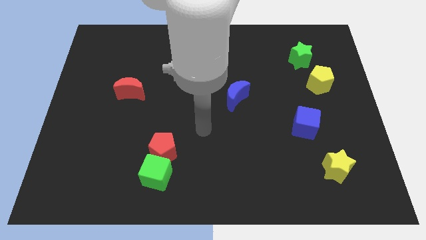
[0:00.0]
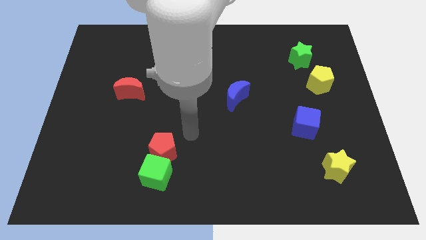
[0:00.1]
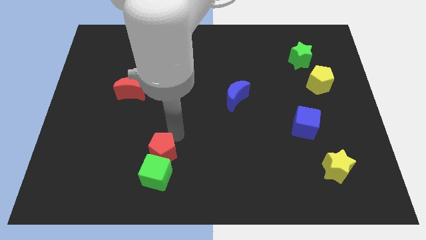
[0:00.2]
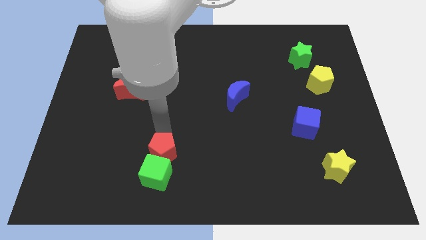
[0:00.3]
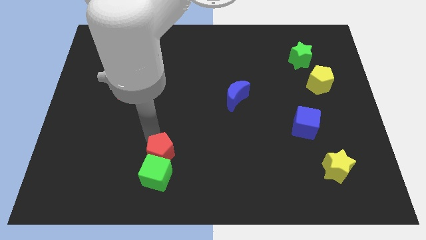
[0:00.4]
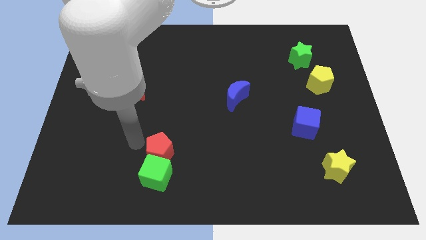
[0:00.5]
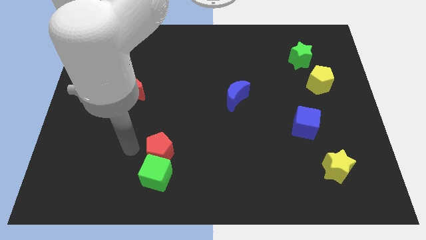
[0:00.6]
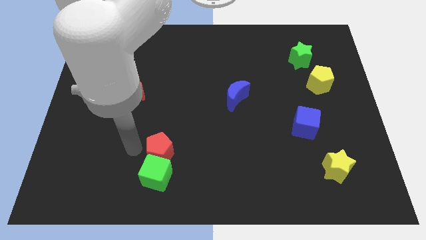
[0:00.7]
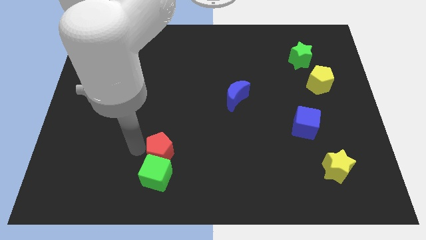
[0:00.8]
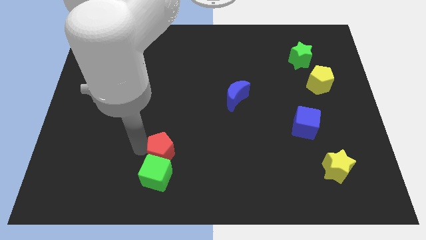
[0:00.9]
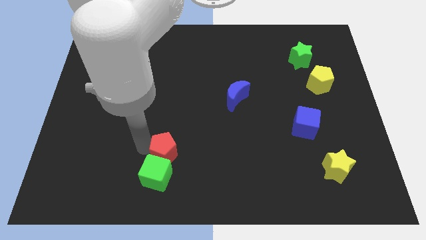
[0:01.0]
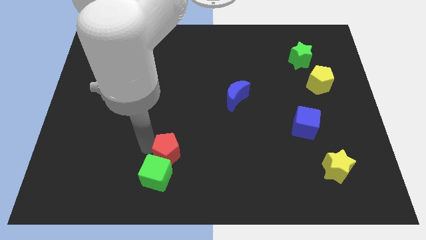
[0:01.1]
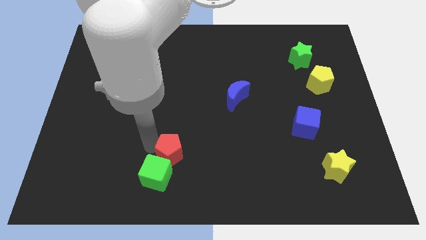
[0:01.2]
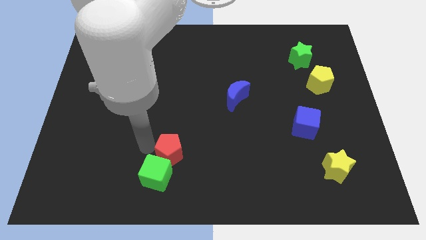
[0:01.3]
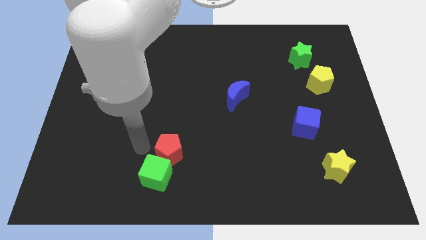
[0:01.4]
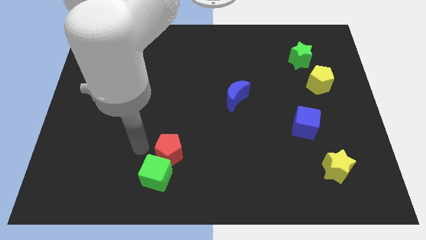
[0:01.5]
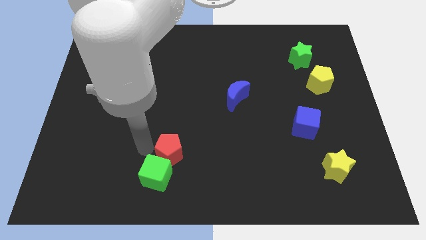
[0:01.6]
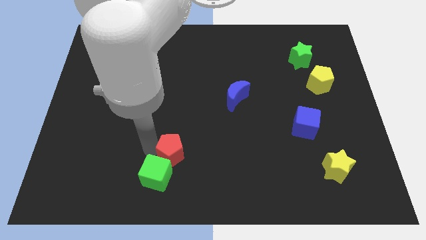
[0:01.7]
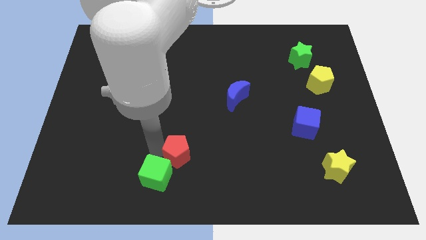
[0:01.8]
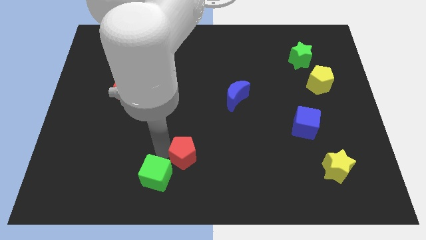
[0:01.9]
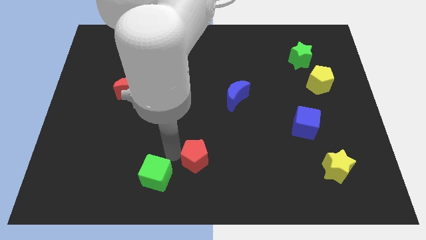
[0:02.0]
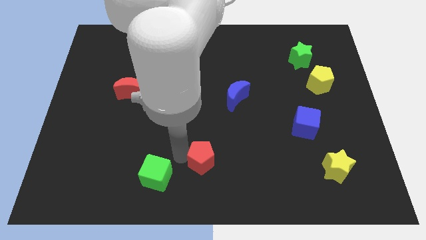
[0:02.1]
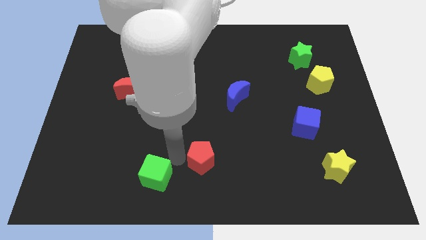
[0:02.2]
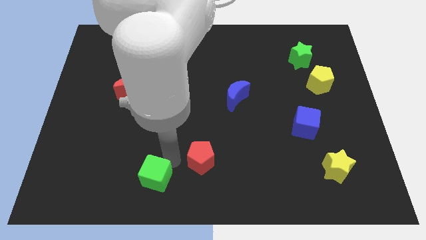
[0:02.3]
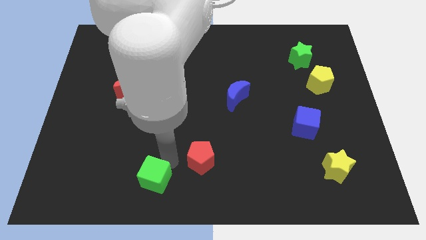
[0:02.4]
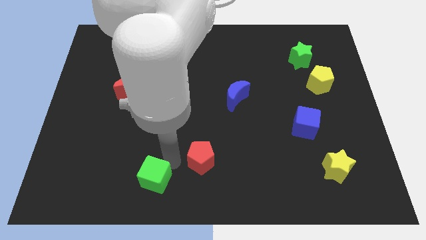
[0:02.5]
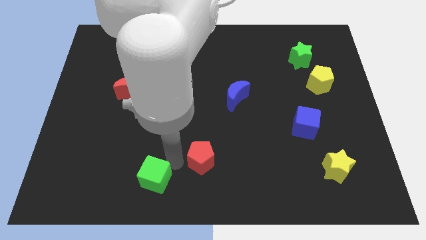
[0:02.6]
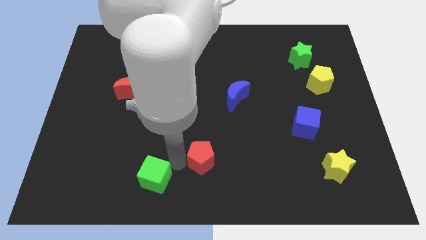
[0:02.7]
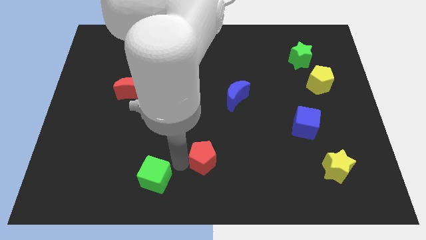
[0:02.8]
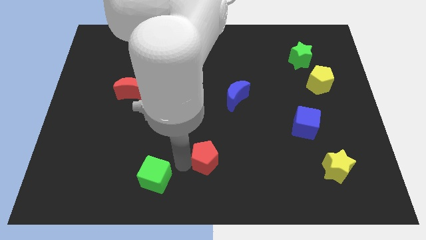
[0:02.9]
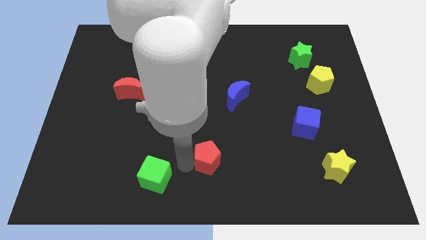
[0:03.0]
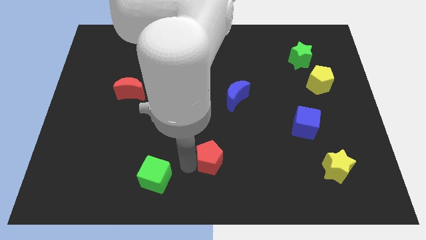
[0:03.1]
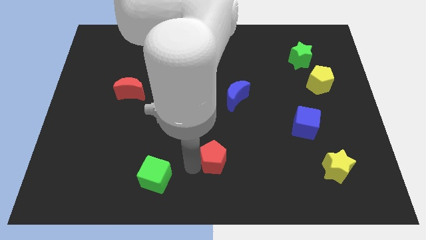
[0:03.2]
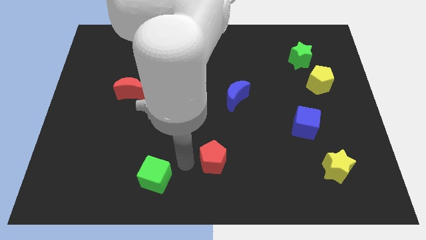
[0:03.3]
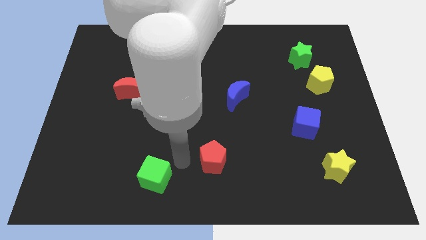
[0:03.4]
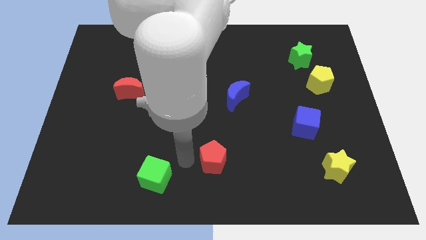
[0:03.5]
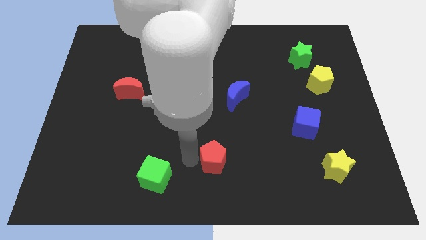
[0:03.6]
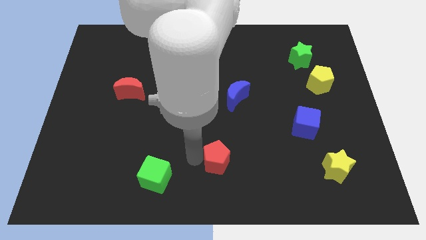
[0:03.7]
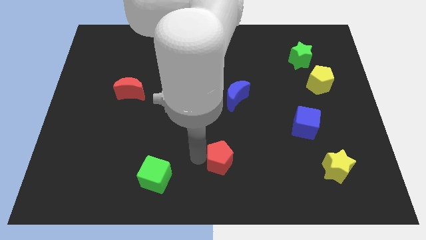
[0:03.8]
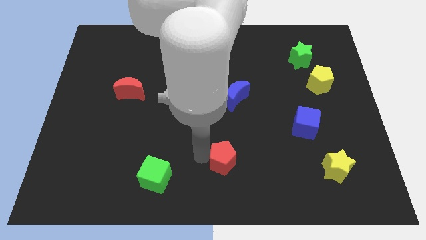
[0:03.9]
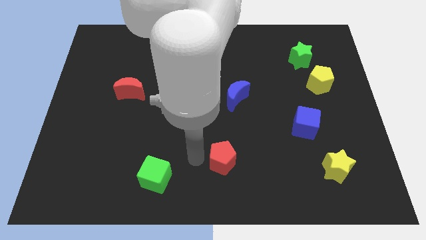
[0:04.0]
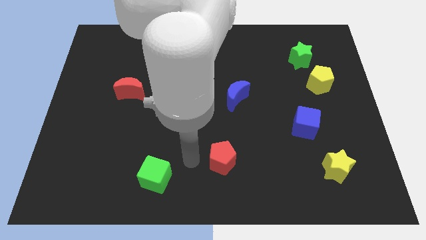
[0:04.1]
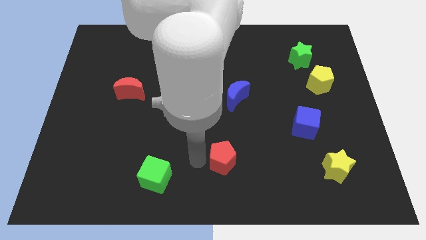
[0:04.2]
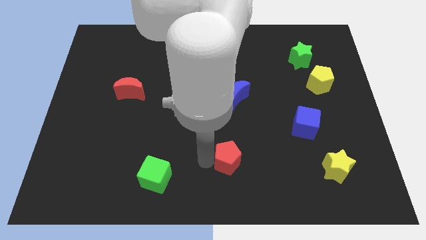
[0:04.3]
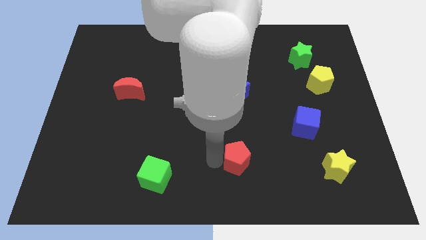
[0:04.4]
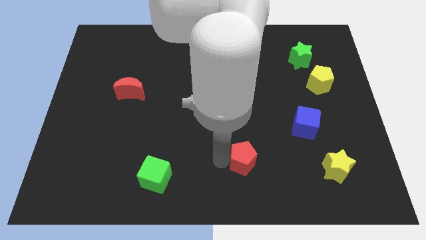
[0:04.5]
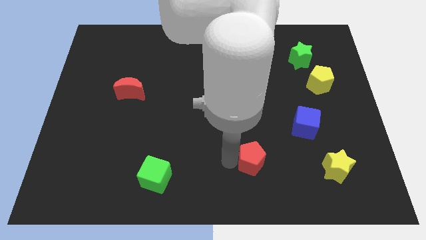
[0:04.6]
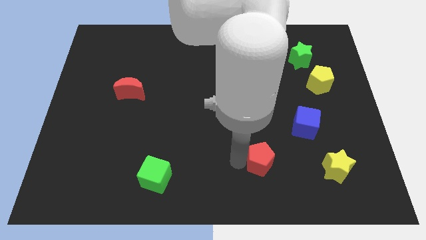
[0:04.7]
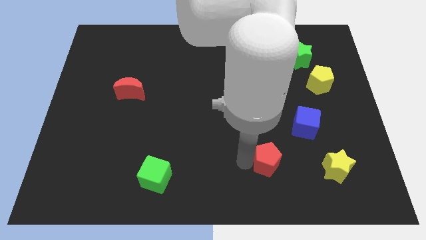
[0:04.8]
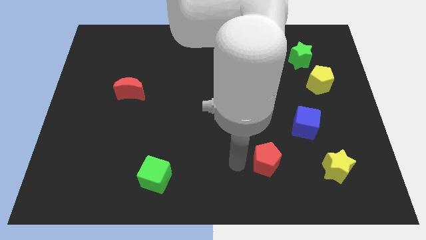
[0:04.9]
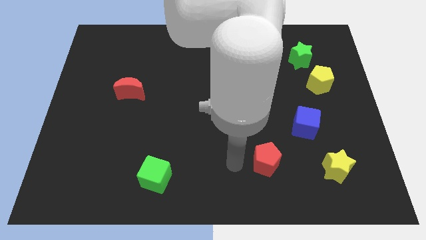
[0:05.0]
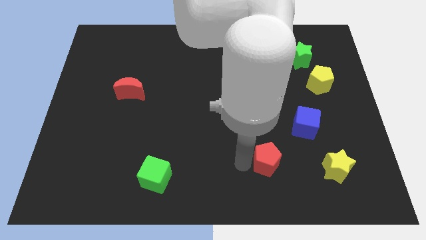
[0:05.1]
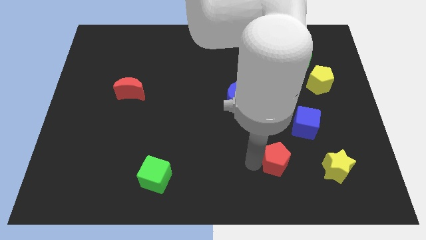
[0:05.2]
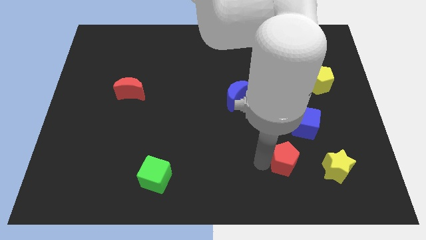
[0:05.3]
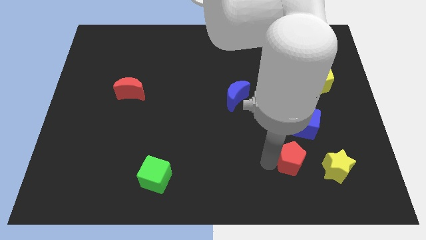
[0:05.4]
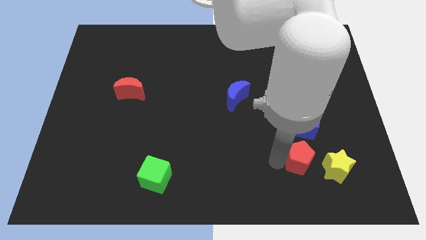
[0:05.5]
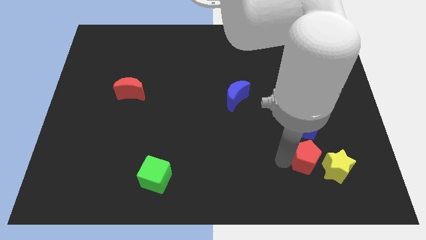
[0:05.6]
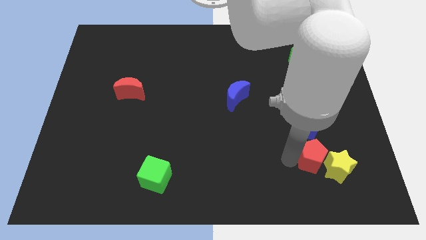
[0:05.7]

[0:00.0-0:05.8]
put the red pentagon to the yellow star

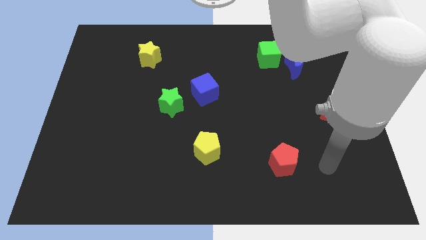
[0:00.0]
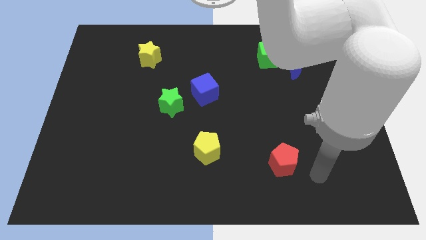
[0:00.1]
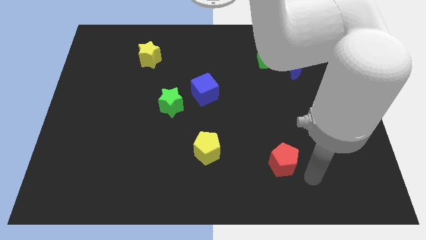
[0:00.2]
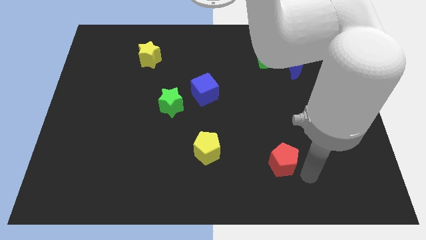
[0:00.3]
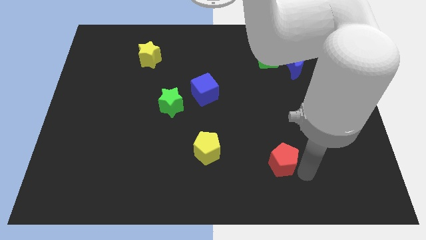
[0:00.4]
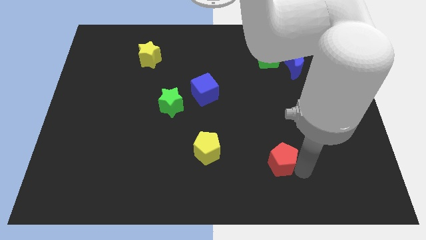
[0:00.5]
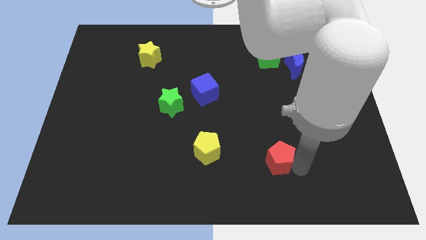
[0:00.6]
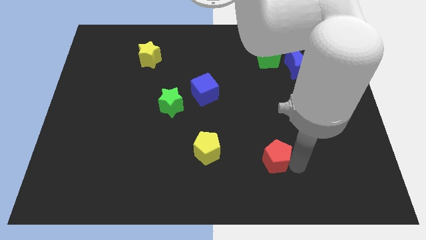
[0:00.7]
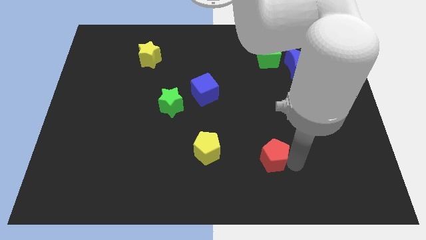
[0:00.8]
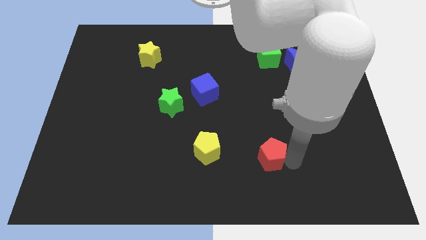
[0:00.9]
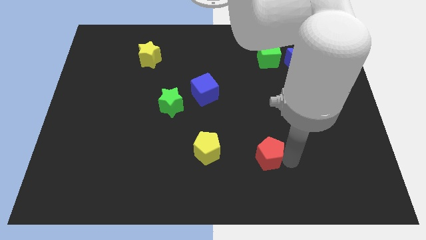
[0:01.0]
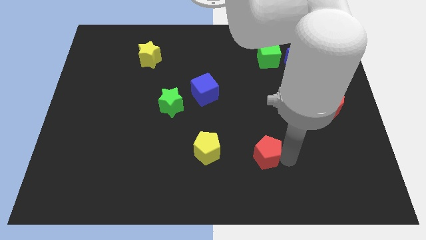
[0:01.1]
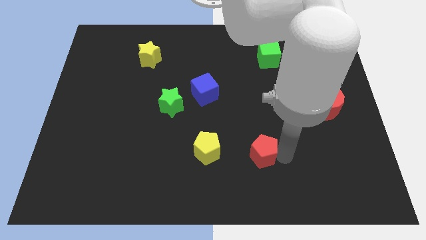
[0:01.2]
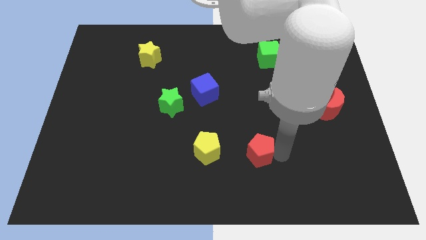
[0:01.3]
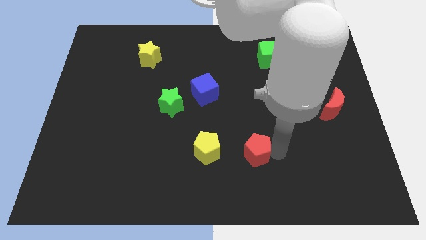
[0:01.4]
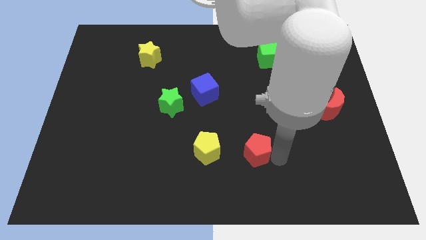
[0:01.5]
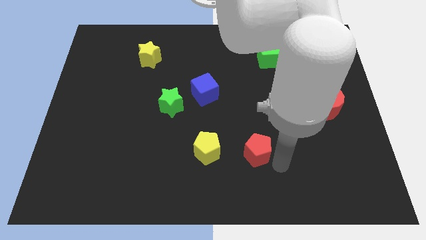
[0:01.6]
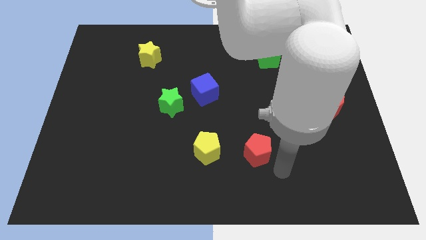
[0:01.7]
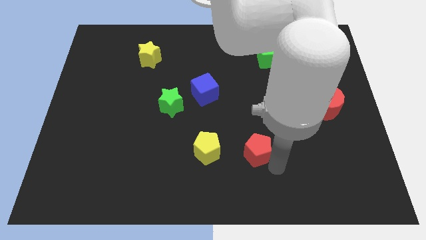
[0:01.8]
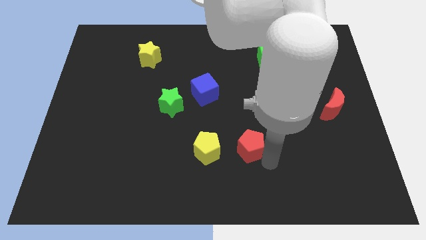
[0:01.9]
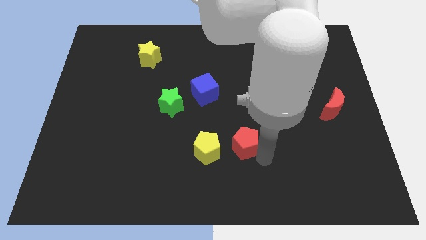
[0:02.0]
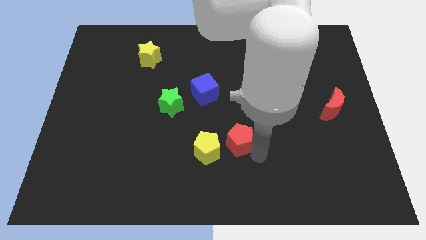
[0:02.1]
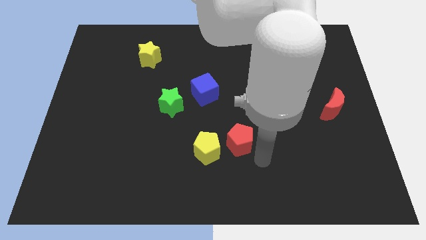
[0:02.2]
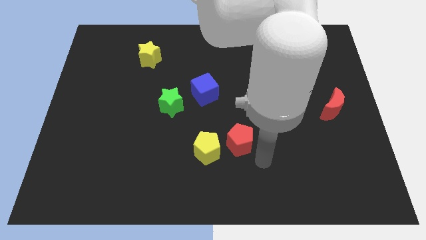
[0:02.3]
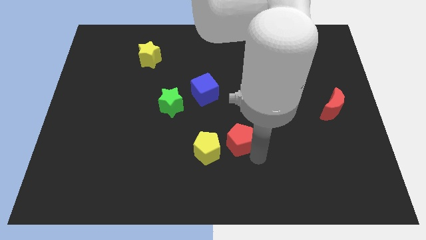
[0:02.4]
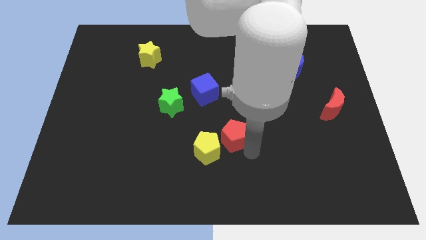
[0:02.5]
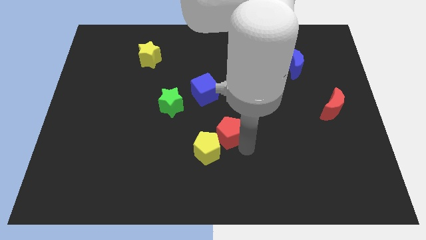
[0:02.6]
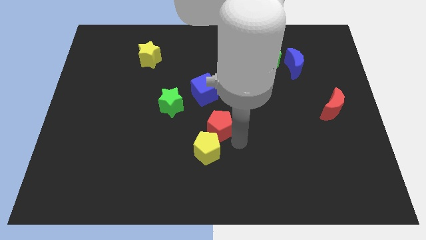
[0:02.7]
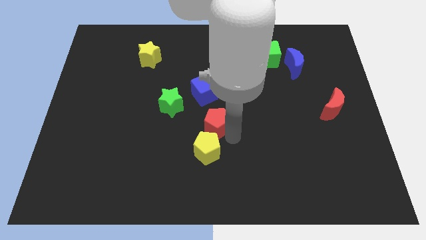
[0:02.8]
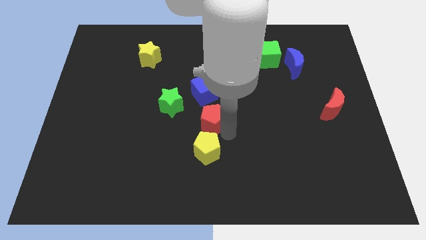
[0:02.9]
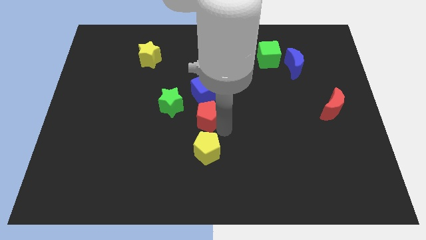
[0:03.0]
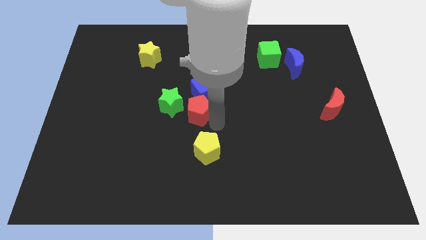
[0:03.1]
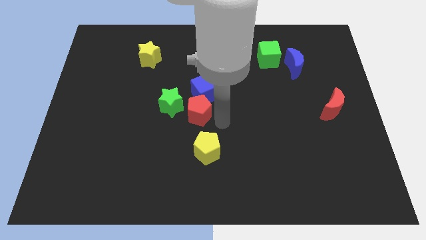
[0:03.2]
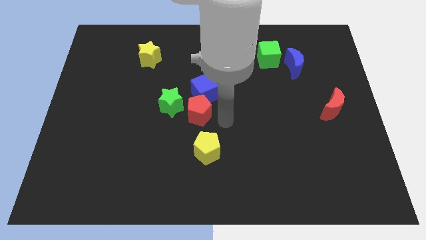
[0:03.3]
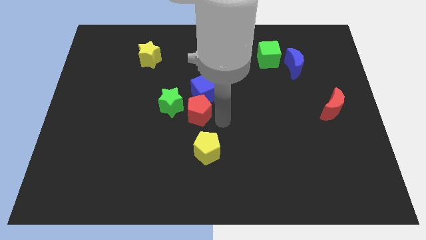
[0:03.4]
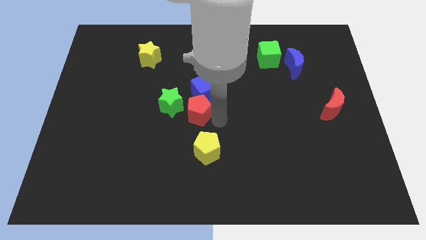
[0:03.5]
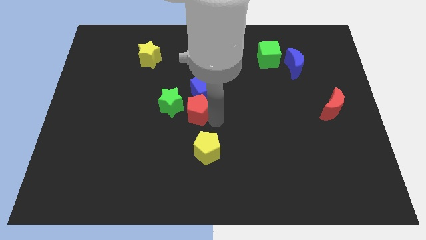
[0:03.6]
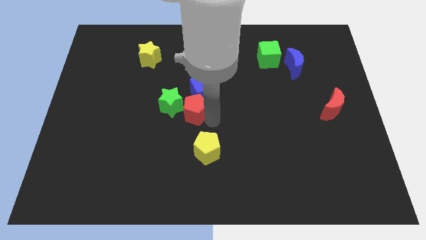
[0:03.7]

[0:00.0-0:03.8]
push the red pentagon towards the green star
